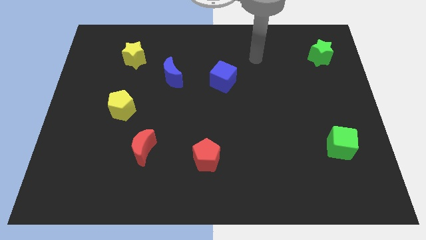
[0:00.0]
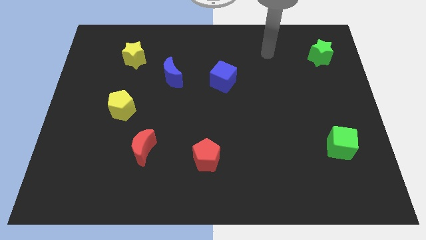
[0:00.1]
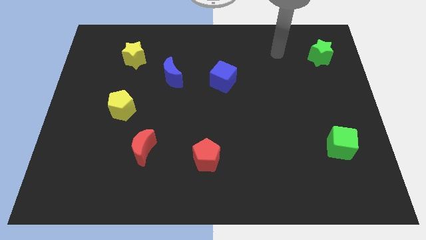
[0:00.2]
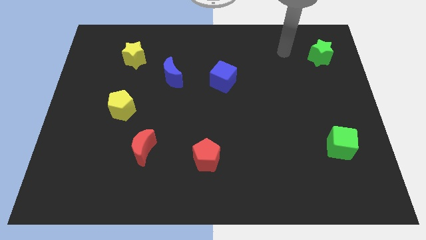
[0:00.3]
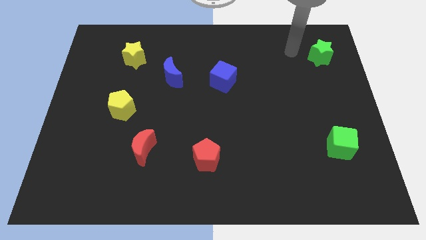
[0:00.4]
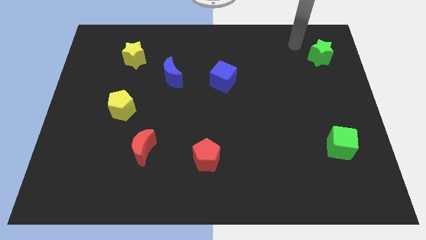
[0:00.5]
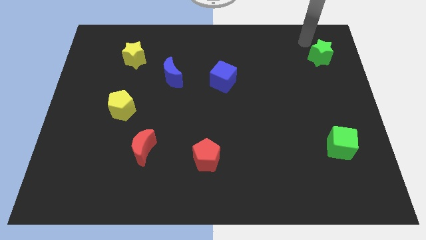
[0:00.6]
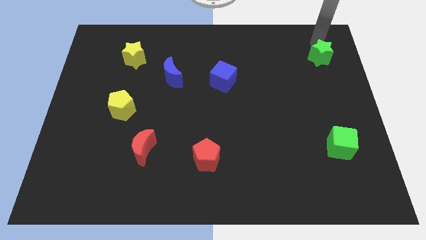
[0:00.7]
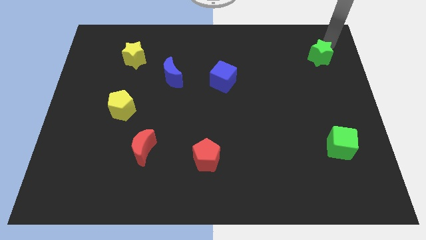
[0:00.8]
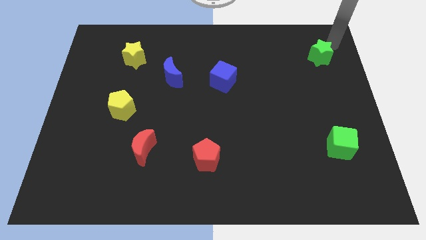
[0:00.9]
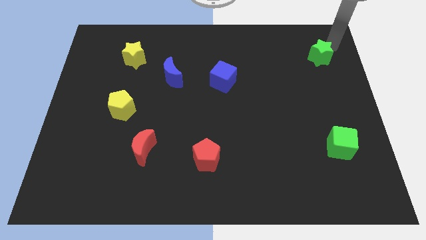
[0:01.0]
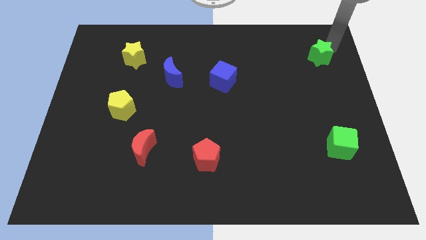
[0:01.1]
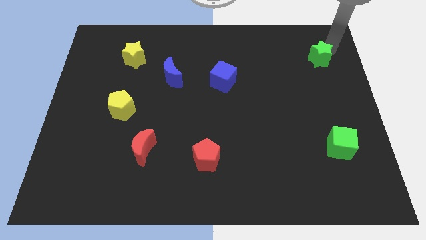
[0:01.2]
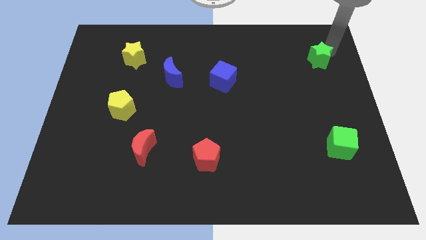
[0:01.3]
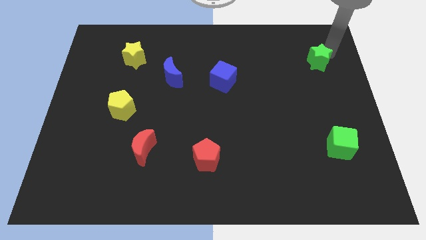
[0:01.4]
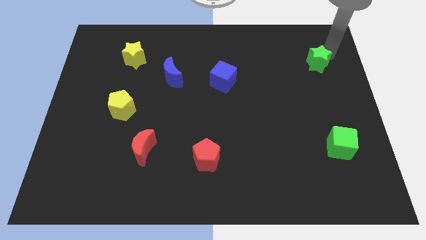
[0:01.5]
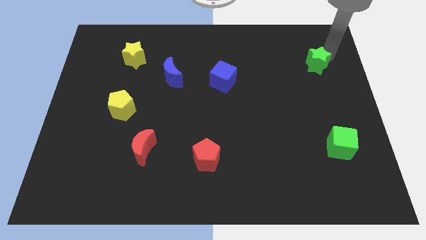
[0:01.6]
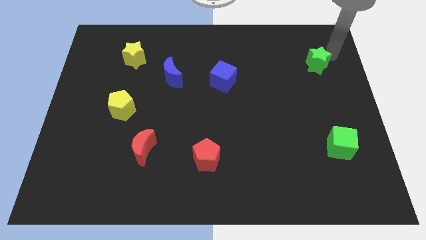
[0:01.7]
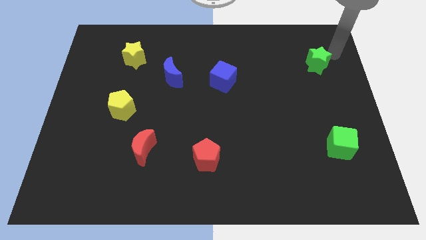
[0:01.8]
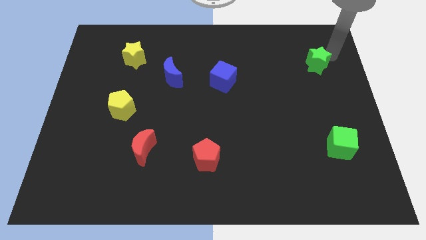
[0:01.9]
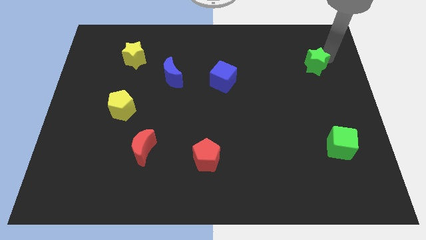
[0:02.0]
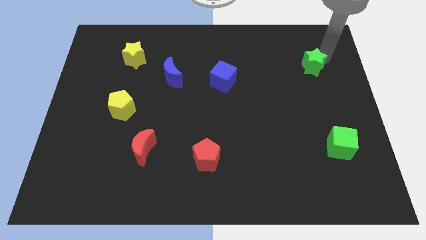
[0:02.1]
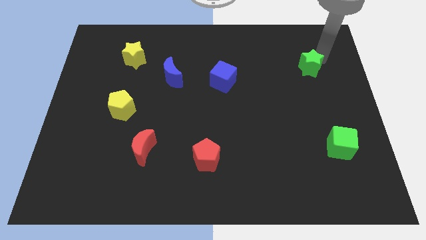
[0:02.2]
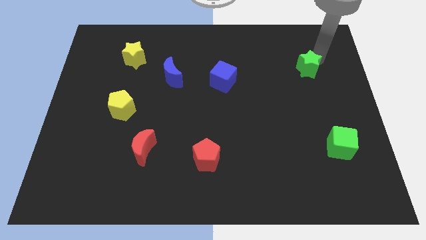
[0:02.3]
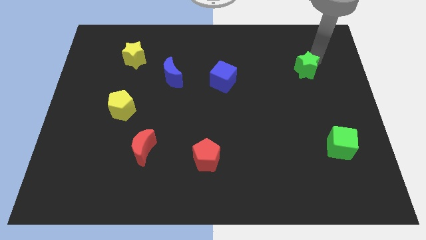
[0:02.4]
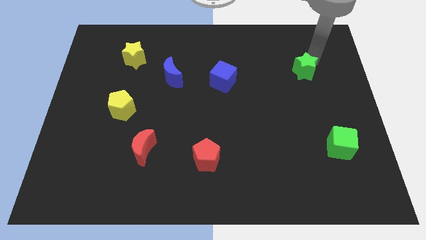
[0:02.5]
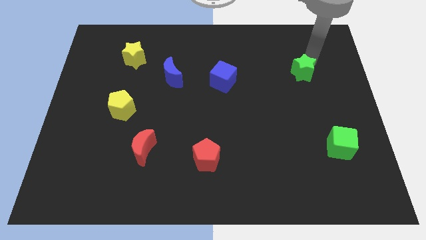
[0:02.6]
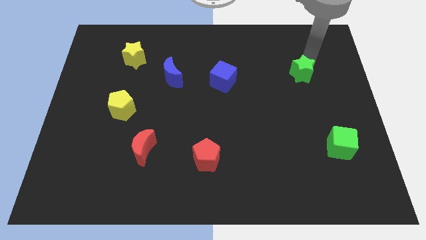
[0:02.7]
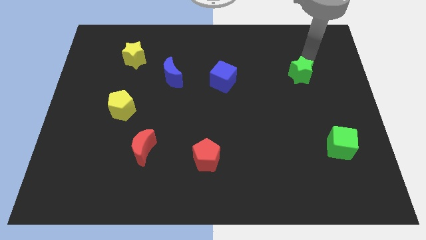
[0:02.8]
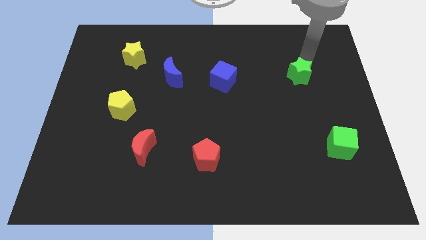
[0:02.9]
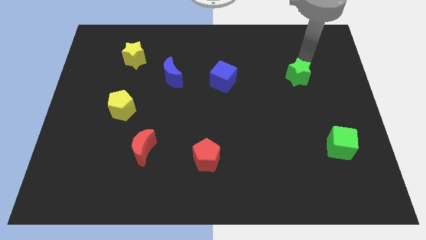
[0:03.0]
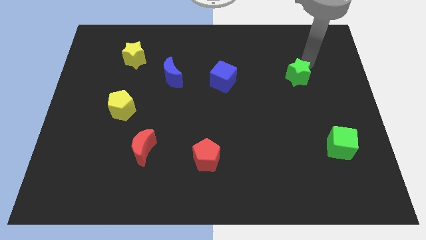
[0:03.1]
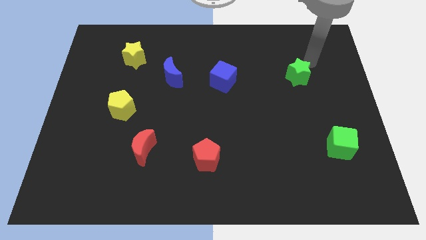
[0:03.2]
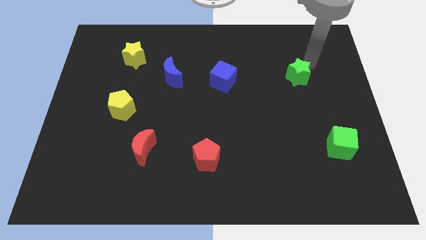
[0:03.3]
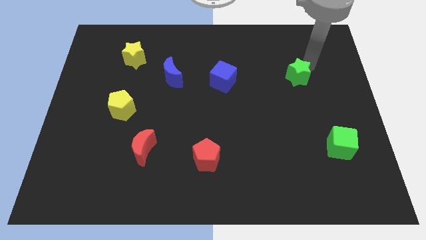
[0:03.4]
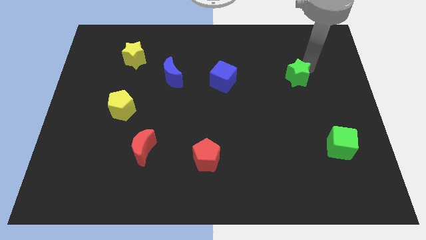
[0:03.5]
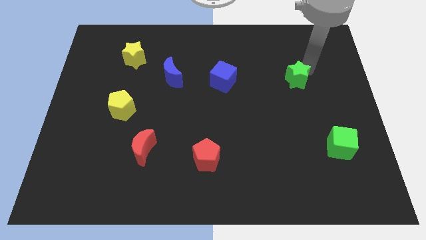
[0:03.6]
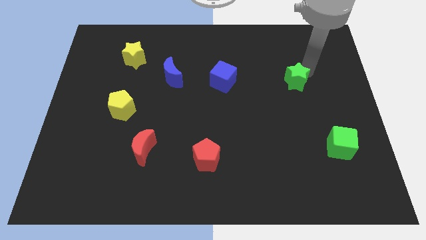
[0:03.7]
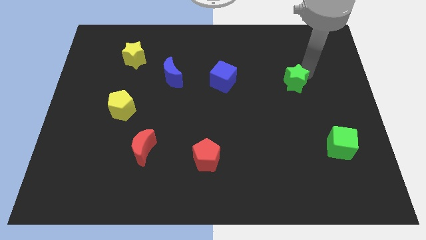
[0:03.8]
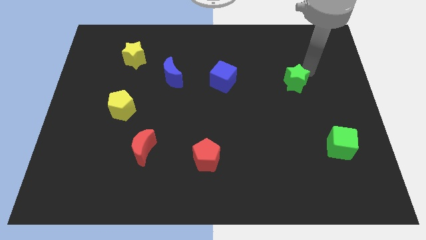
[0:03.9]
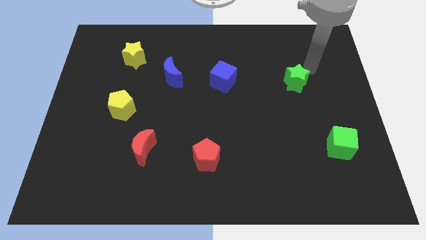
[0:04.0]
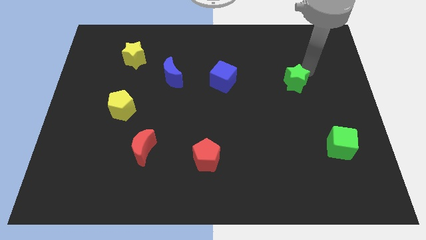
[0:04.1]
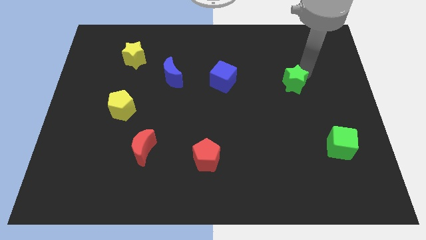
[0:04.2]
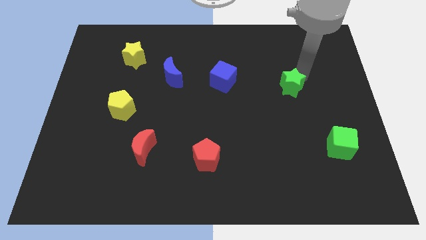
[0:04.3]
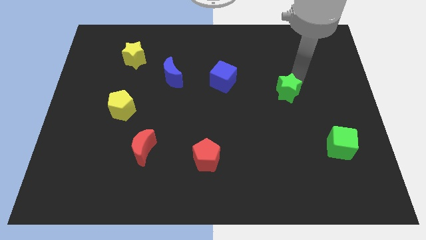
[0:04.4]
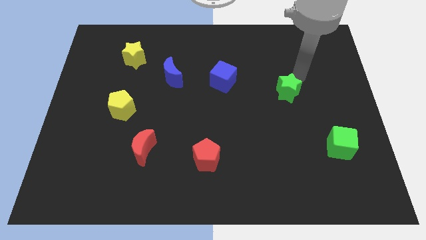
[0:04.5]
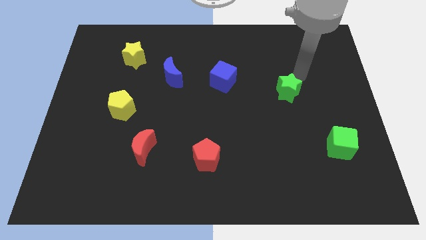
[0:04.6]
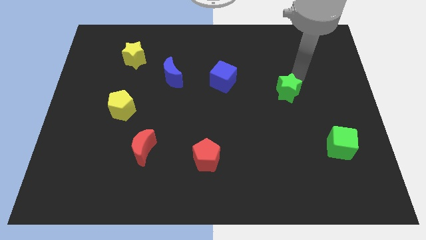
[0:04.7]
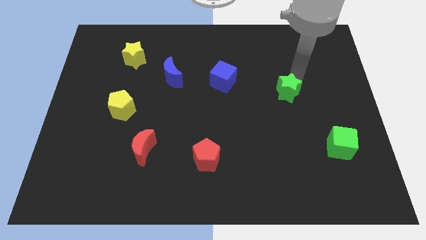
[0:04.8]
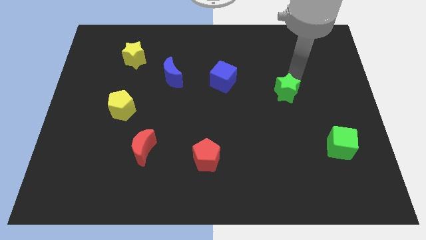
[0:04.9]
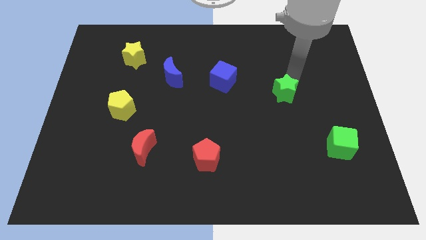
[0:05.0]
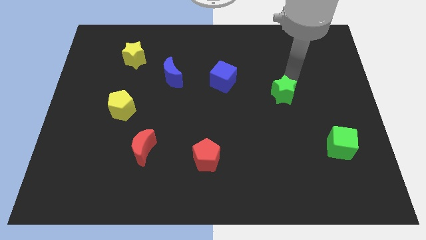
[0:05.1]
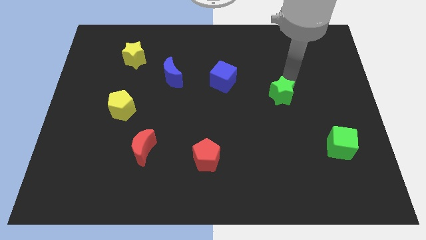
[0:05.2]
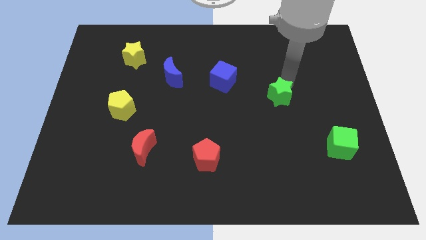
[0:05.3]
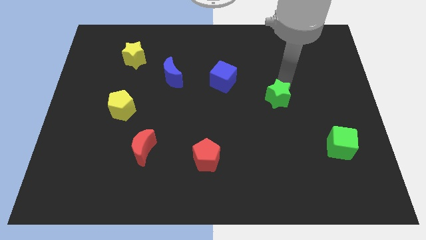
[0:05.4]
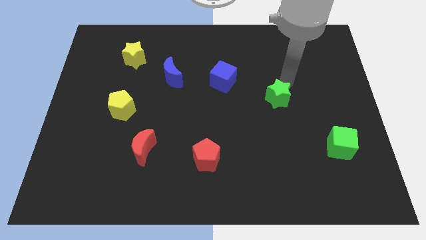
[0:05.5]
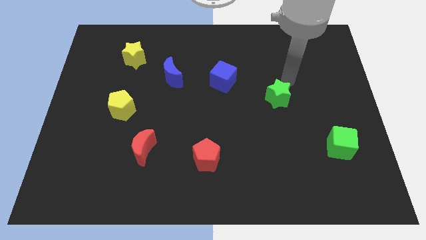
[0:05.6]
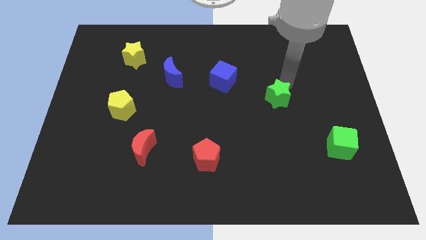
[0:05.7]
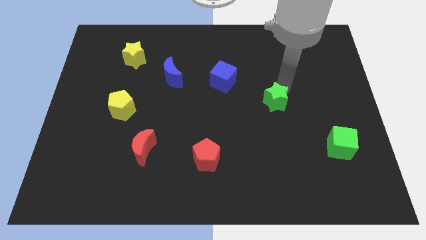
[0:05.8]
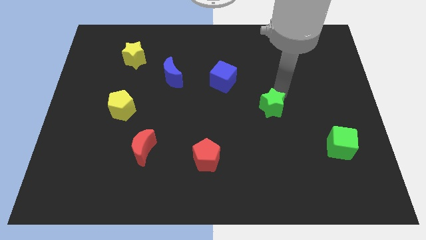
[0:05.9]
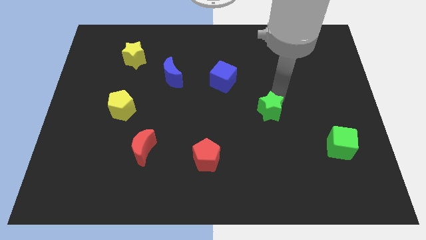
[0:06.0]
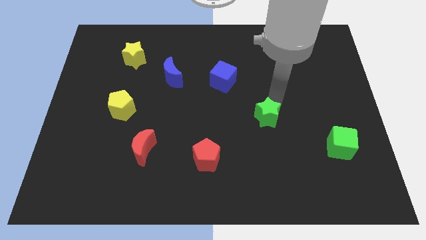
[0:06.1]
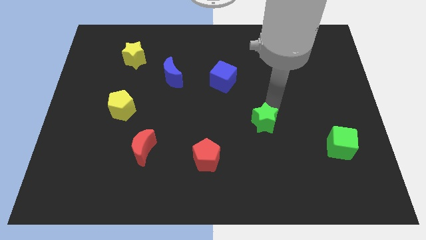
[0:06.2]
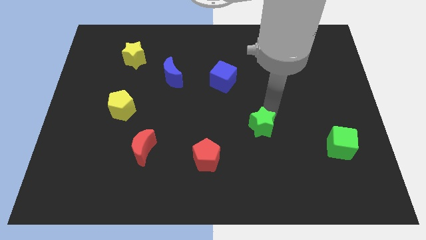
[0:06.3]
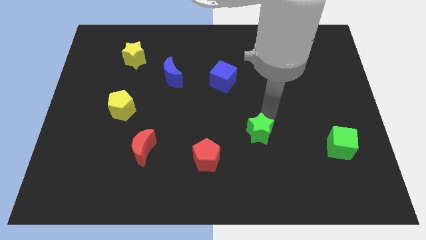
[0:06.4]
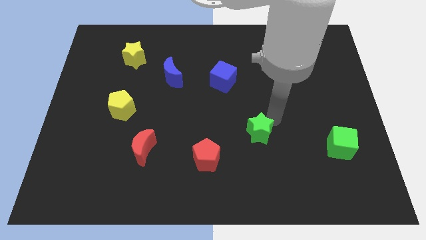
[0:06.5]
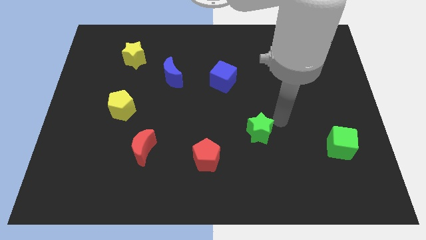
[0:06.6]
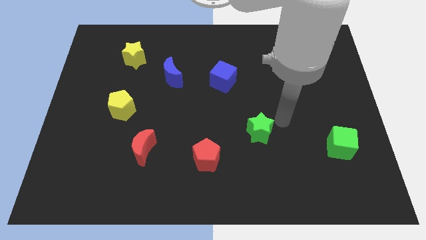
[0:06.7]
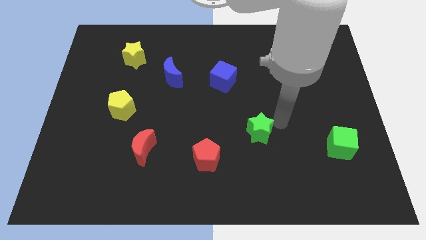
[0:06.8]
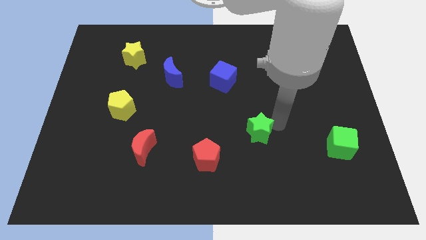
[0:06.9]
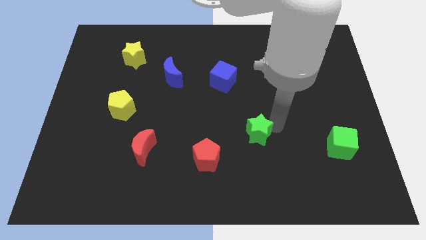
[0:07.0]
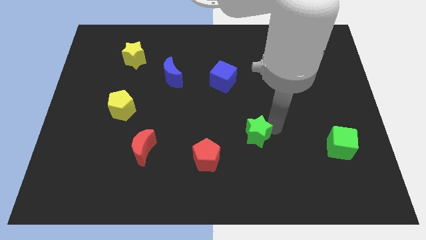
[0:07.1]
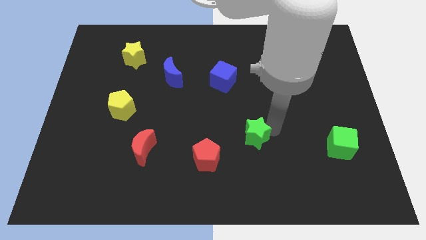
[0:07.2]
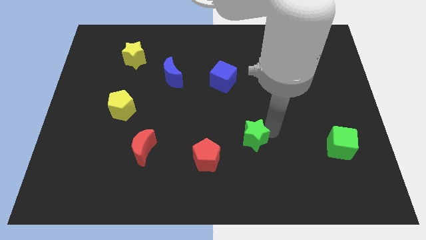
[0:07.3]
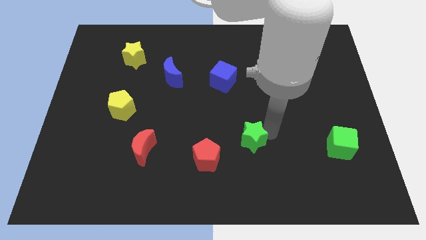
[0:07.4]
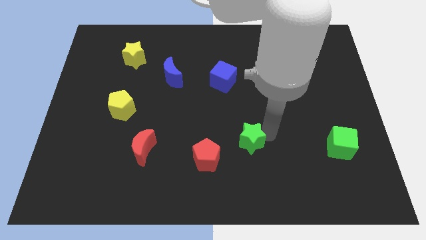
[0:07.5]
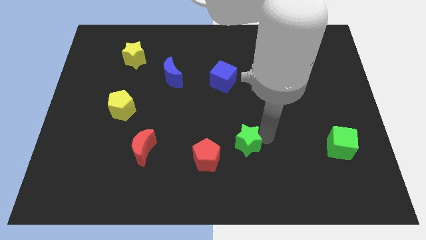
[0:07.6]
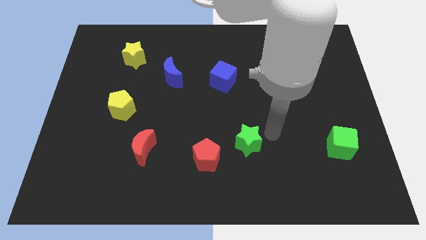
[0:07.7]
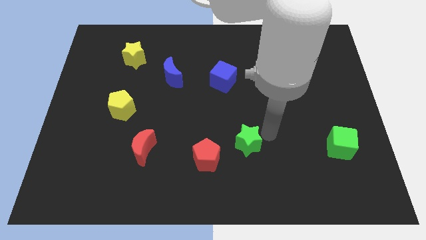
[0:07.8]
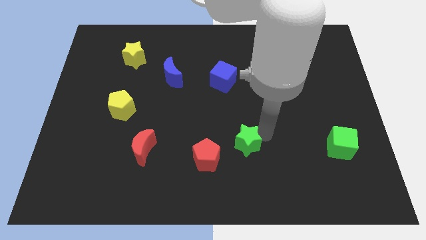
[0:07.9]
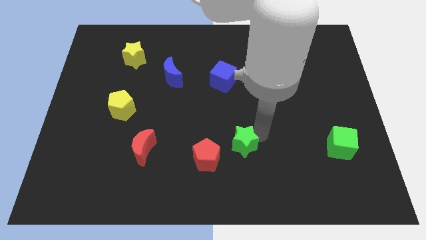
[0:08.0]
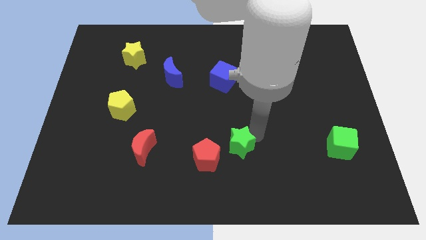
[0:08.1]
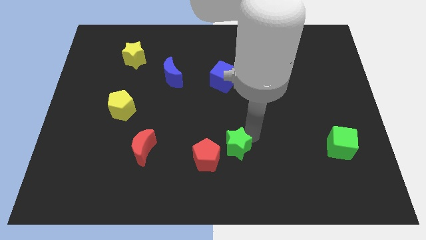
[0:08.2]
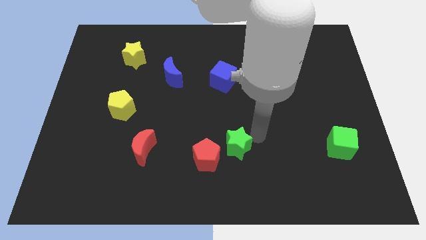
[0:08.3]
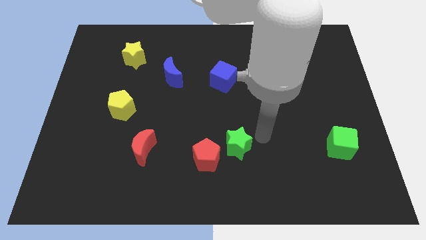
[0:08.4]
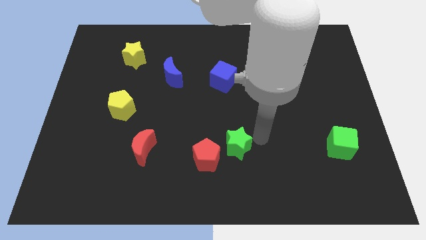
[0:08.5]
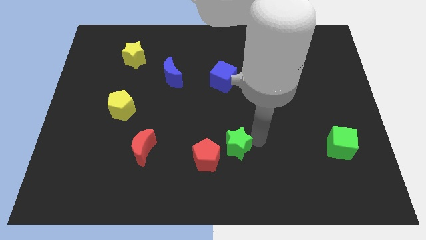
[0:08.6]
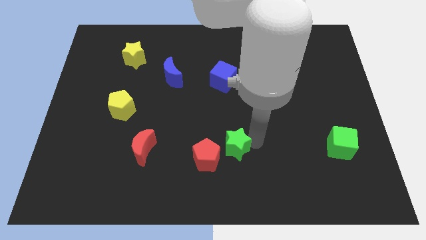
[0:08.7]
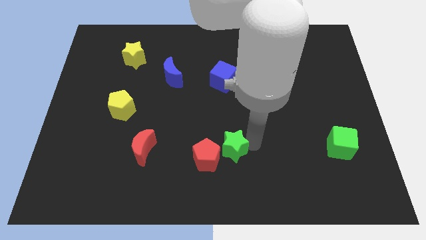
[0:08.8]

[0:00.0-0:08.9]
slide the green star close to the red pentagon
